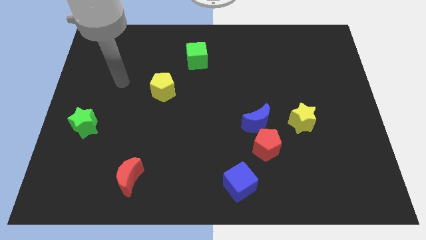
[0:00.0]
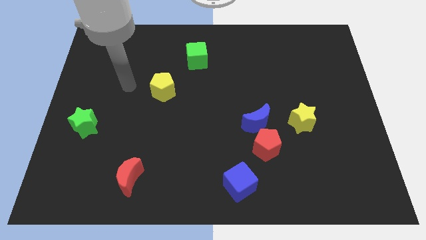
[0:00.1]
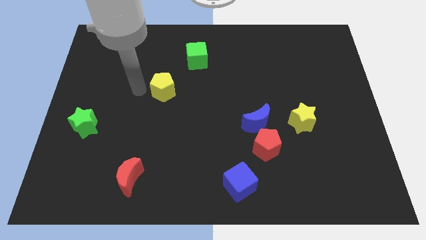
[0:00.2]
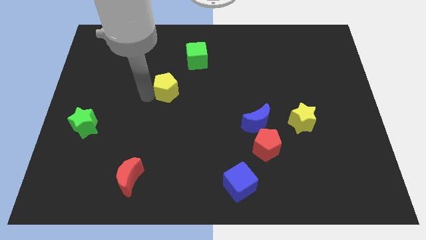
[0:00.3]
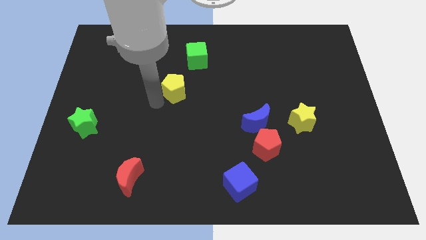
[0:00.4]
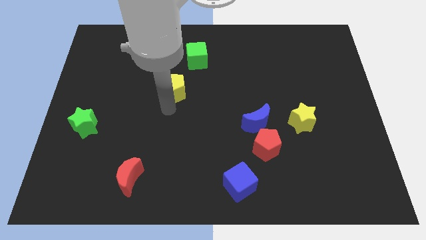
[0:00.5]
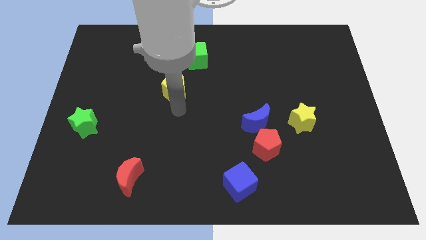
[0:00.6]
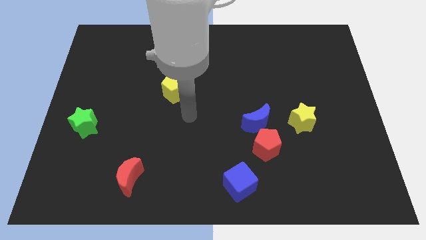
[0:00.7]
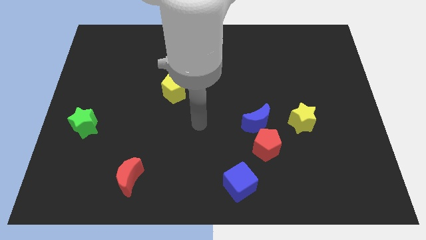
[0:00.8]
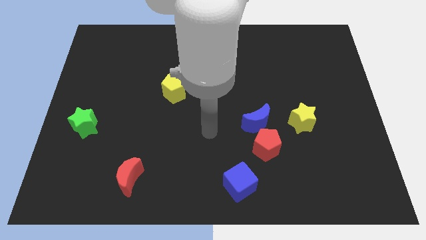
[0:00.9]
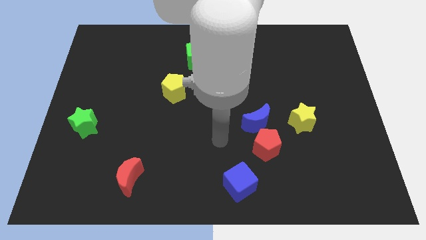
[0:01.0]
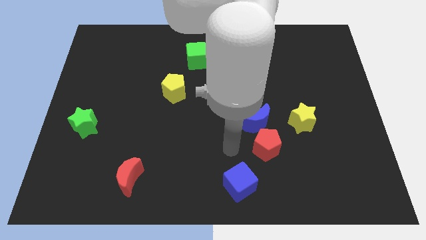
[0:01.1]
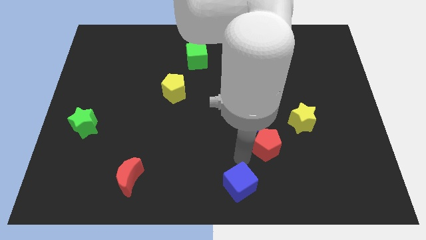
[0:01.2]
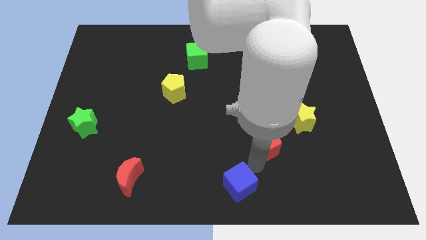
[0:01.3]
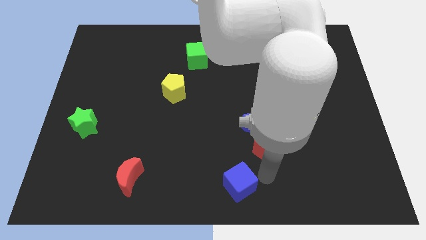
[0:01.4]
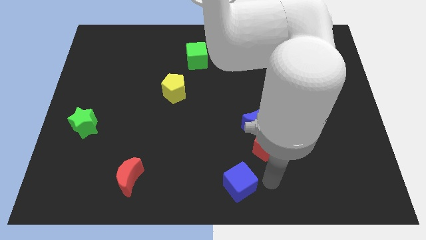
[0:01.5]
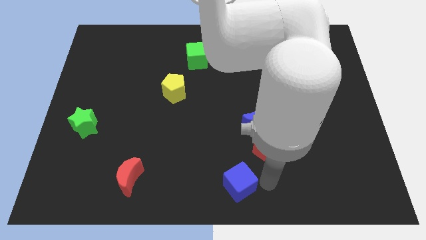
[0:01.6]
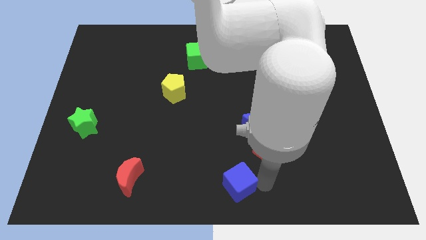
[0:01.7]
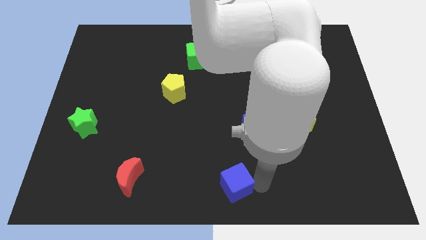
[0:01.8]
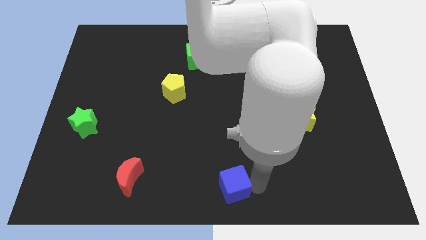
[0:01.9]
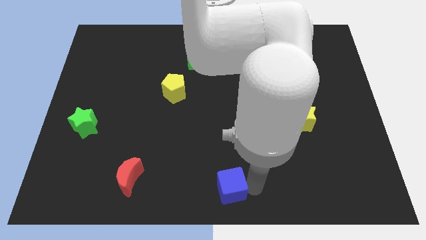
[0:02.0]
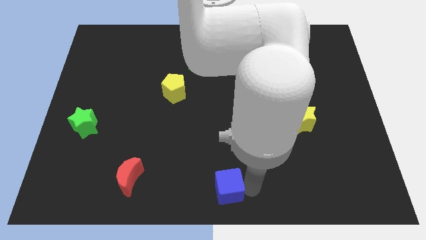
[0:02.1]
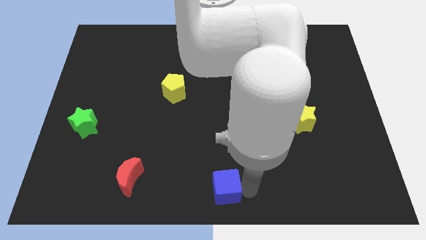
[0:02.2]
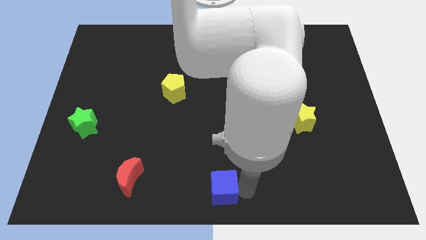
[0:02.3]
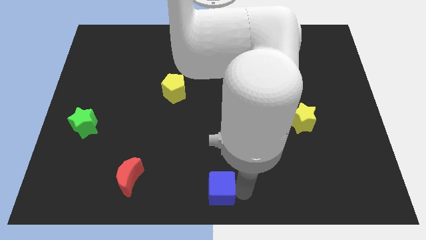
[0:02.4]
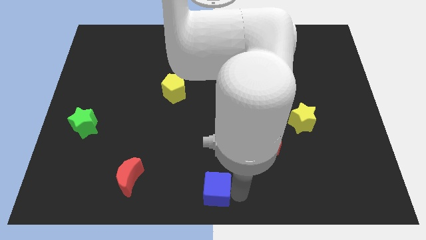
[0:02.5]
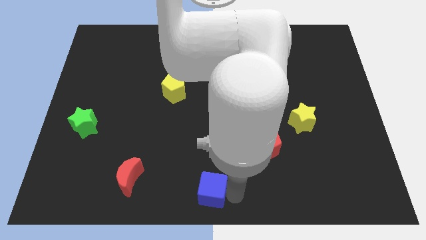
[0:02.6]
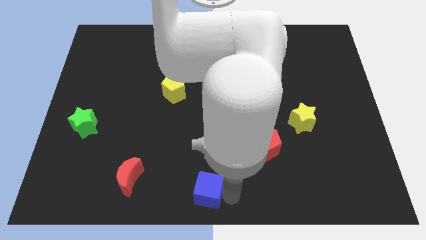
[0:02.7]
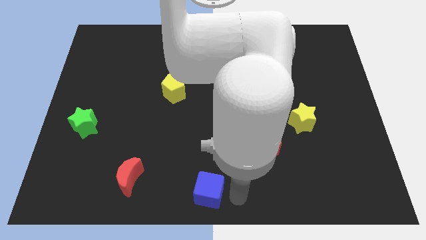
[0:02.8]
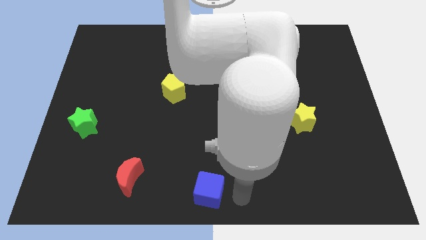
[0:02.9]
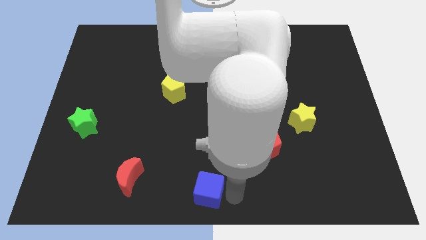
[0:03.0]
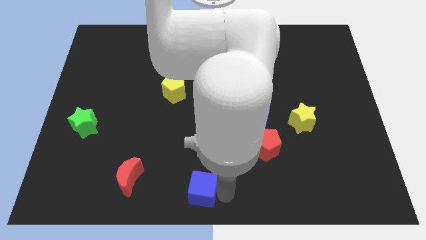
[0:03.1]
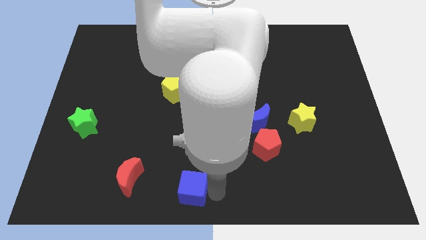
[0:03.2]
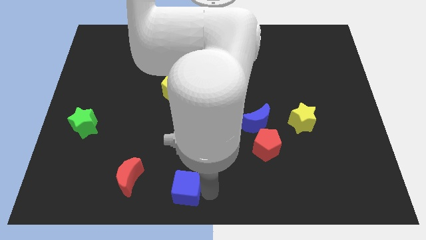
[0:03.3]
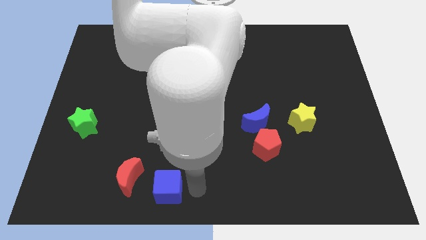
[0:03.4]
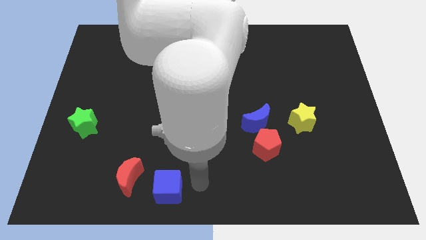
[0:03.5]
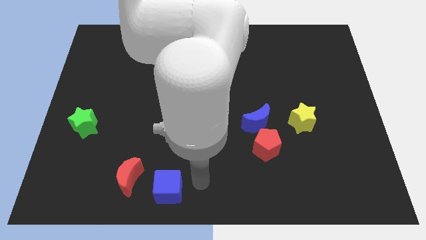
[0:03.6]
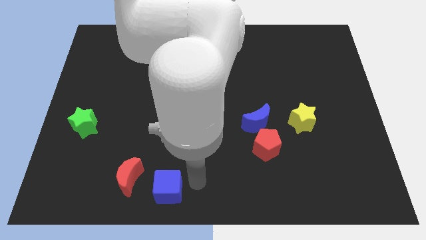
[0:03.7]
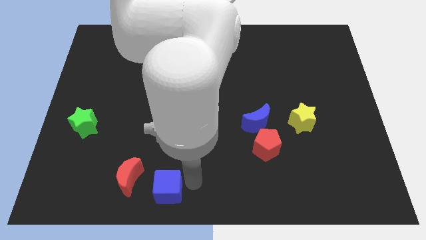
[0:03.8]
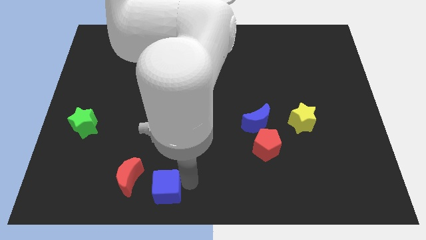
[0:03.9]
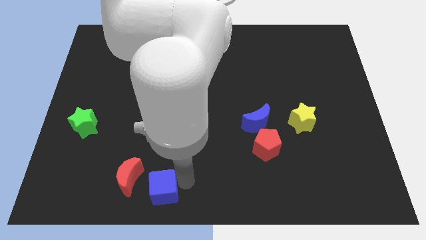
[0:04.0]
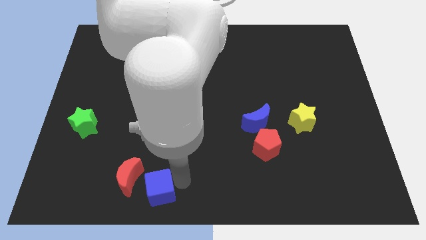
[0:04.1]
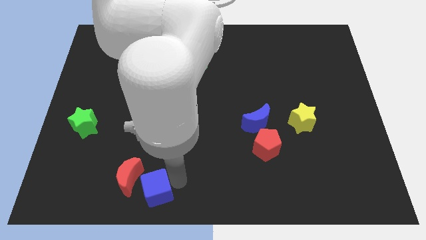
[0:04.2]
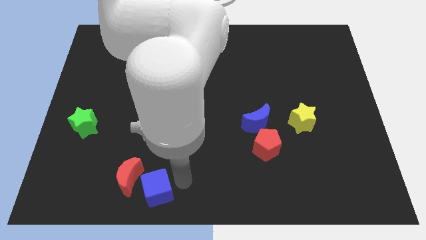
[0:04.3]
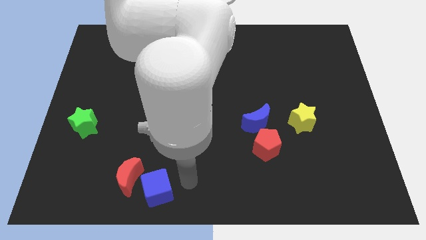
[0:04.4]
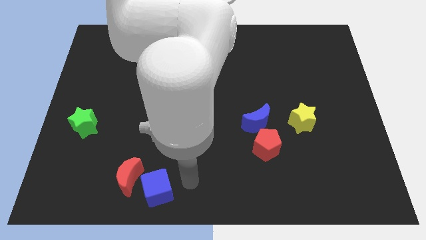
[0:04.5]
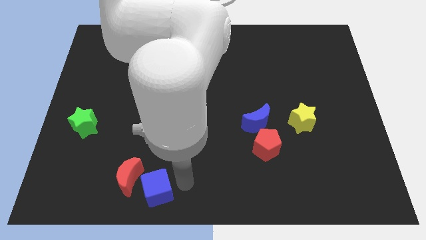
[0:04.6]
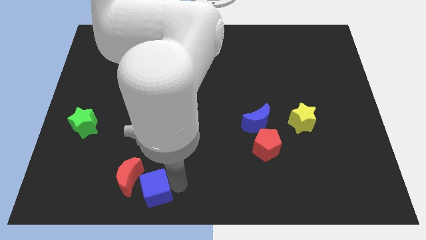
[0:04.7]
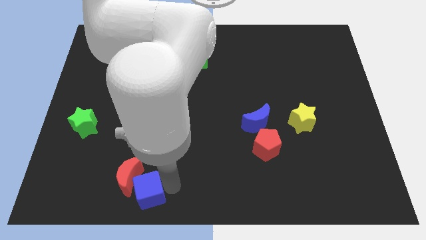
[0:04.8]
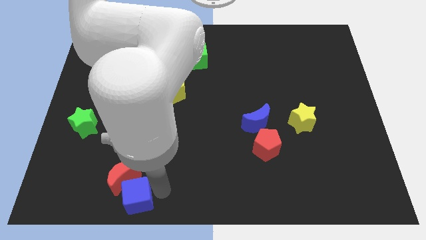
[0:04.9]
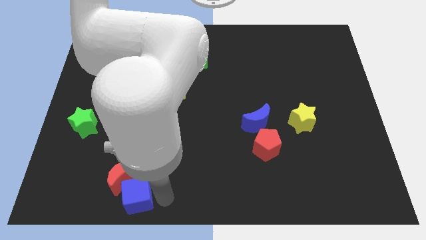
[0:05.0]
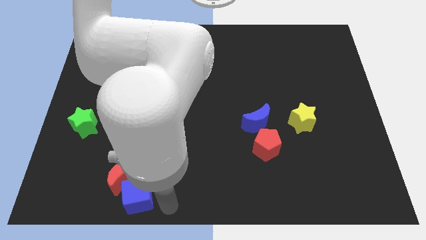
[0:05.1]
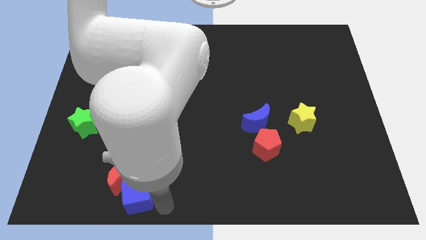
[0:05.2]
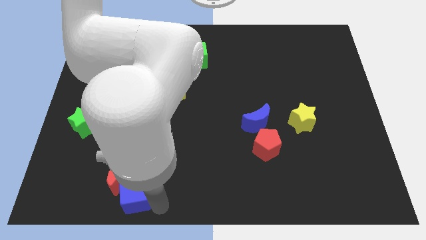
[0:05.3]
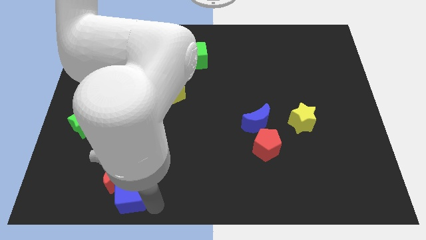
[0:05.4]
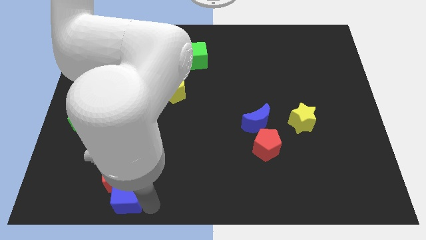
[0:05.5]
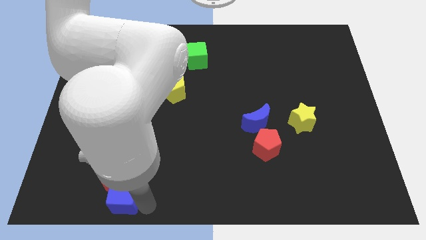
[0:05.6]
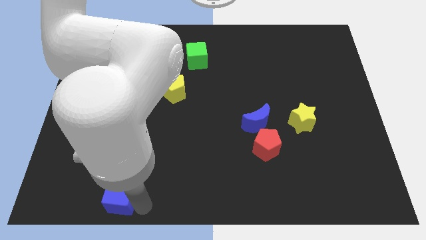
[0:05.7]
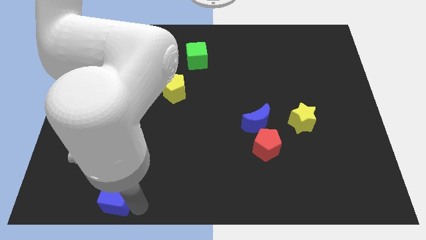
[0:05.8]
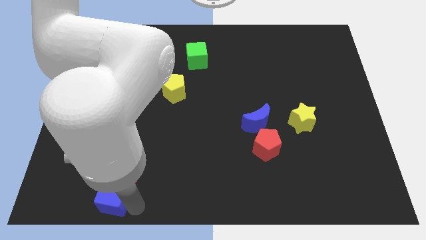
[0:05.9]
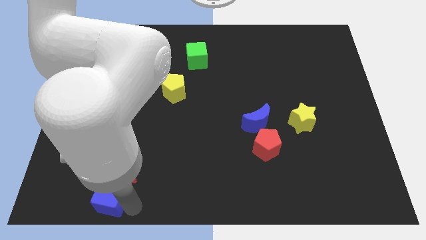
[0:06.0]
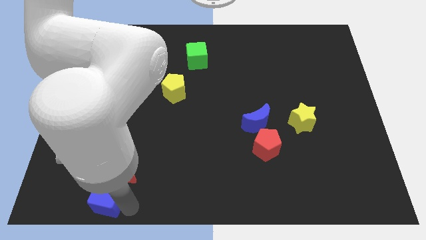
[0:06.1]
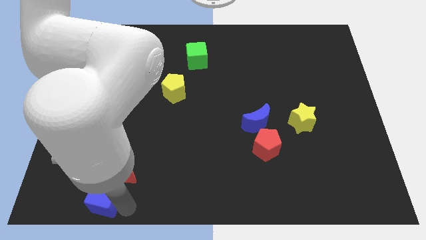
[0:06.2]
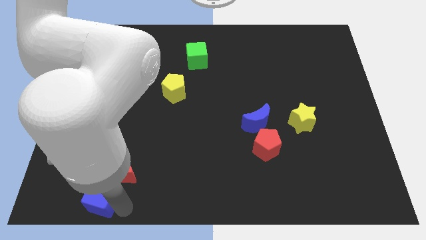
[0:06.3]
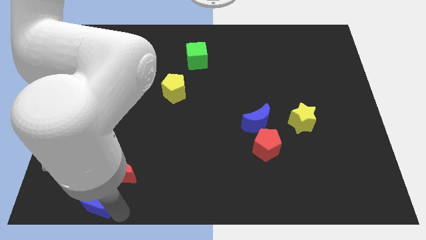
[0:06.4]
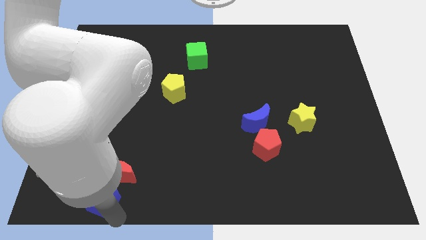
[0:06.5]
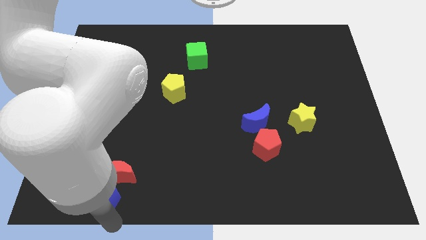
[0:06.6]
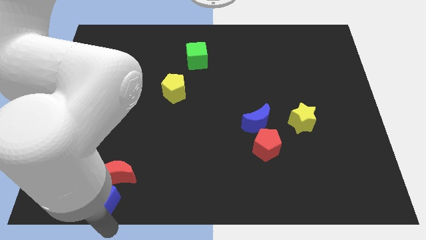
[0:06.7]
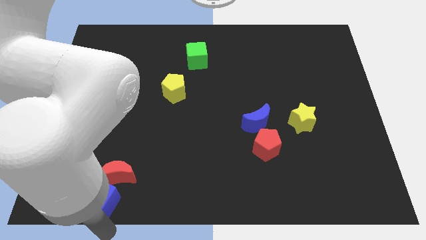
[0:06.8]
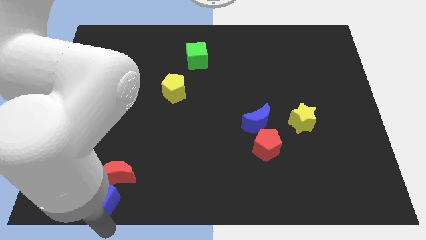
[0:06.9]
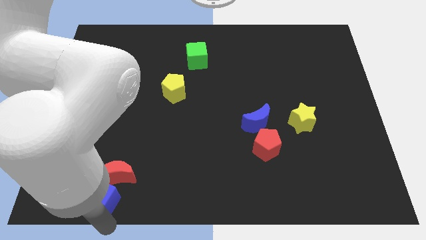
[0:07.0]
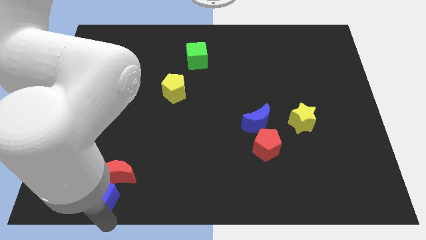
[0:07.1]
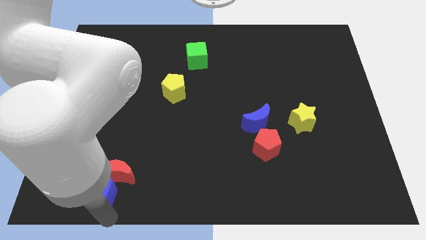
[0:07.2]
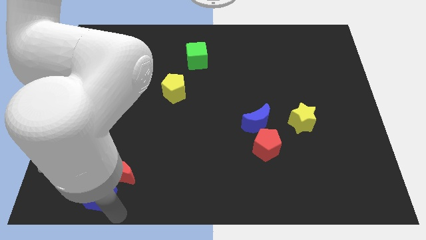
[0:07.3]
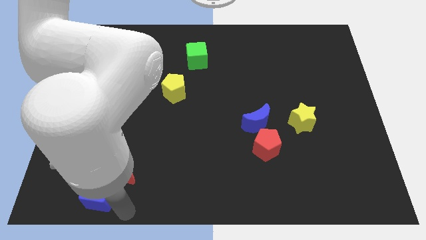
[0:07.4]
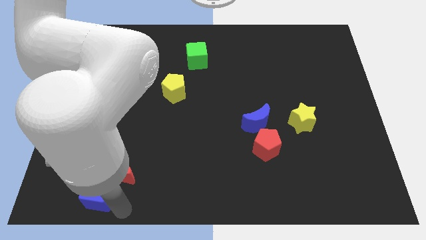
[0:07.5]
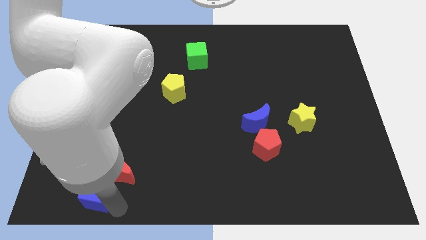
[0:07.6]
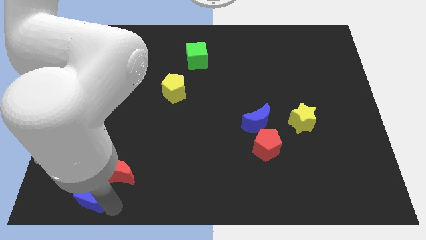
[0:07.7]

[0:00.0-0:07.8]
push the blue cube to the left of the red moon
